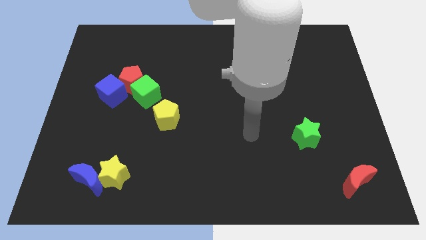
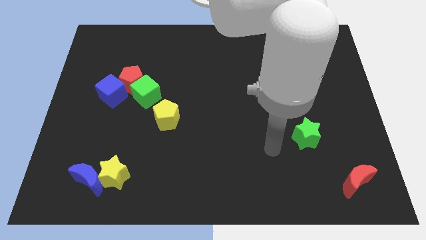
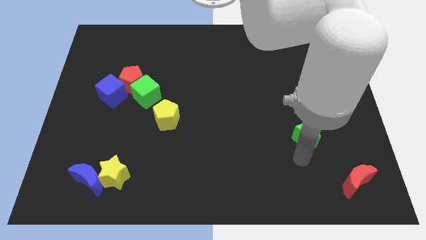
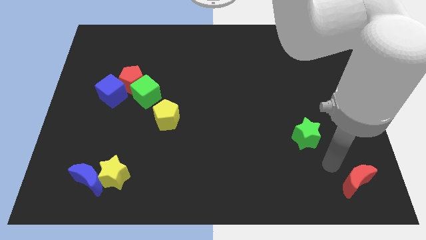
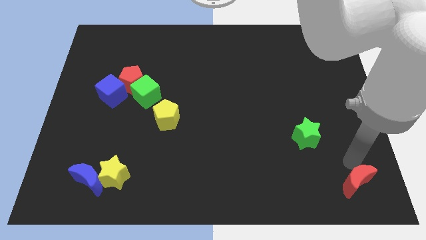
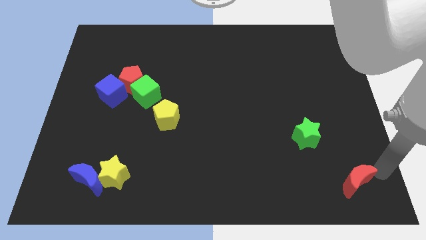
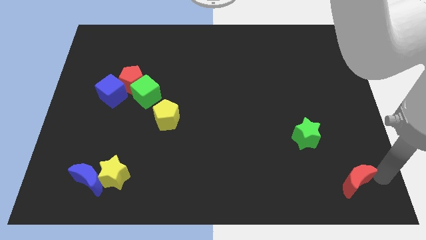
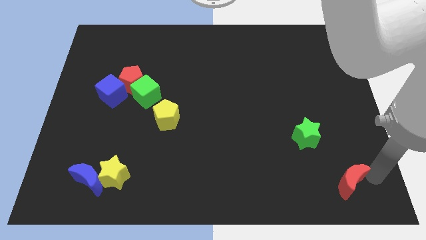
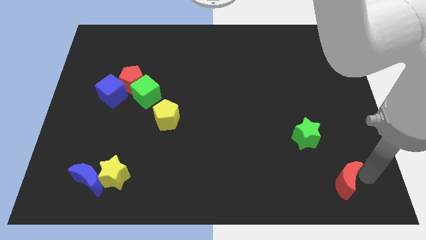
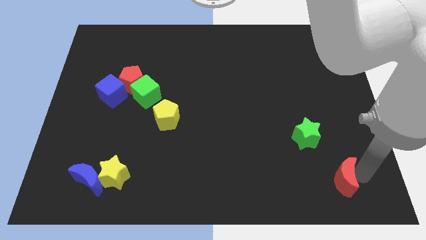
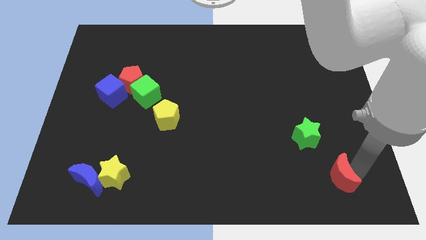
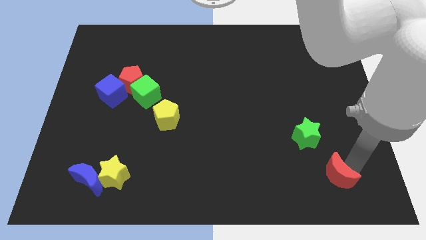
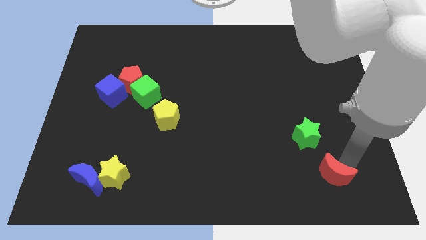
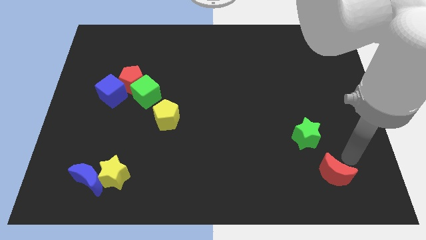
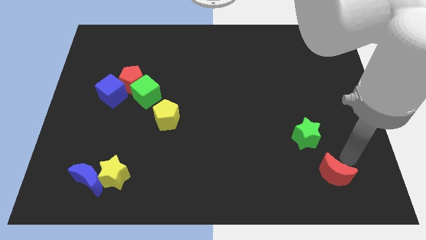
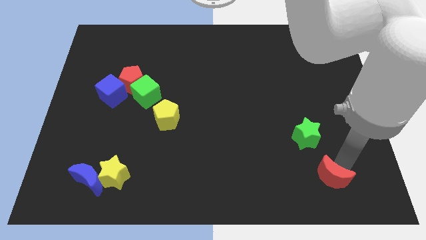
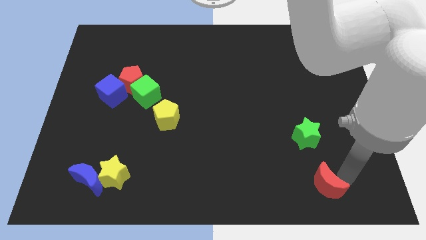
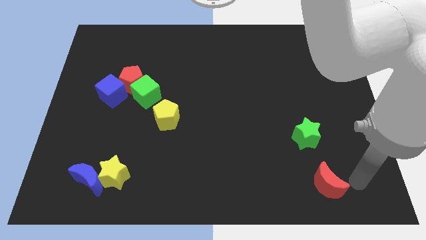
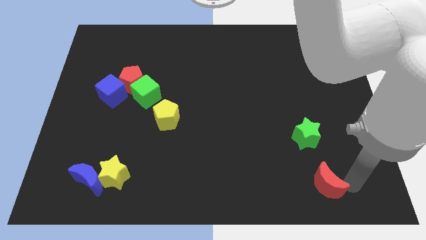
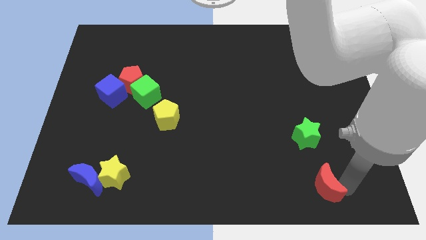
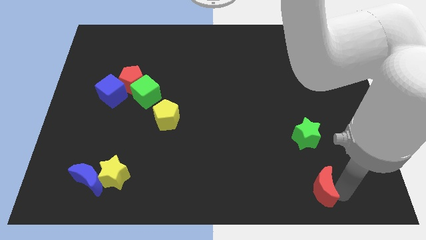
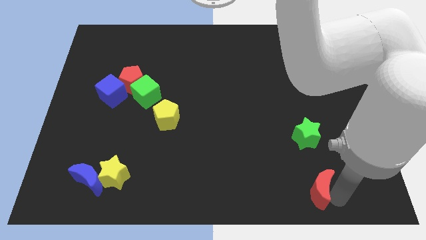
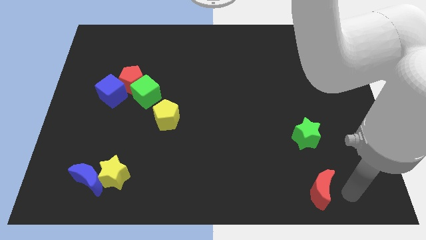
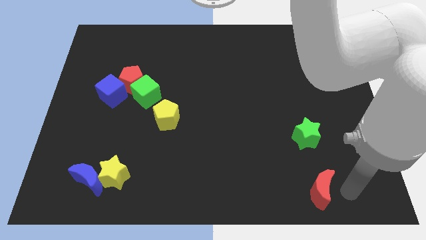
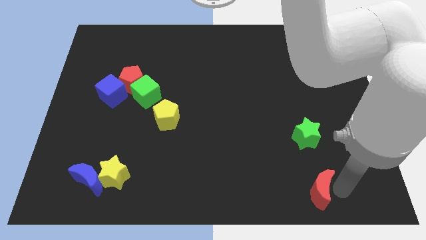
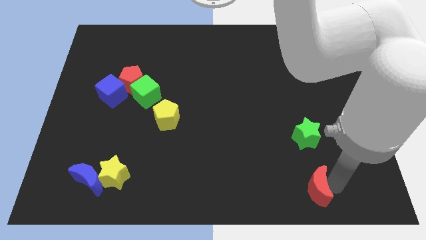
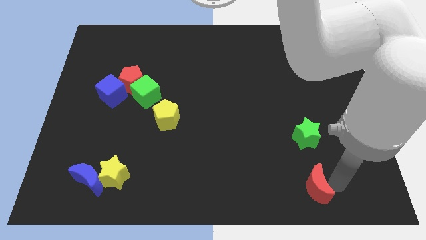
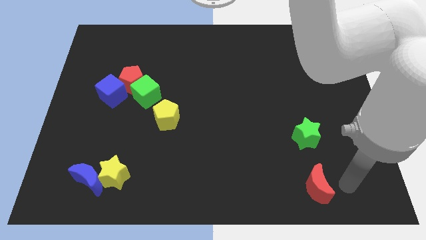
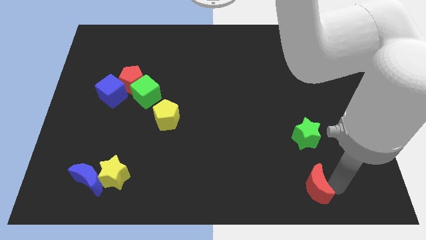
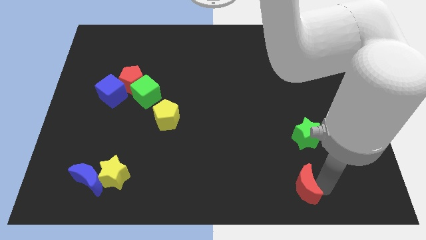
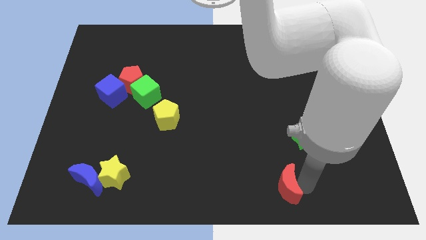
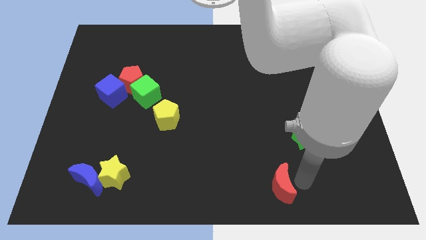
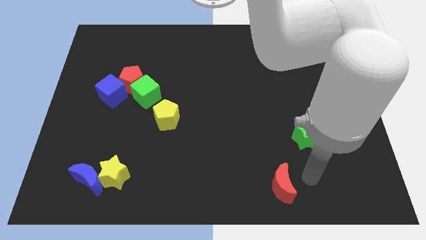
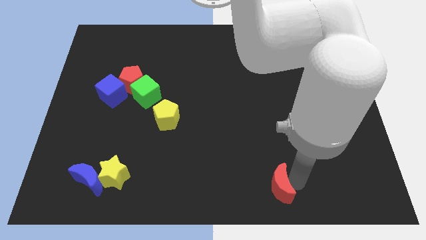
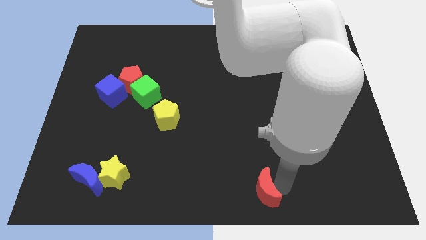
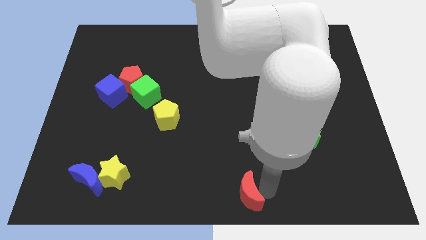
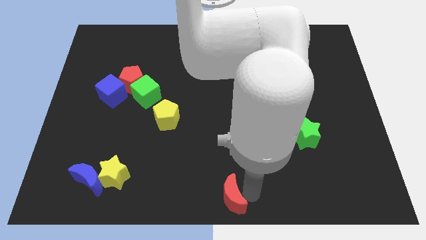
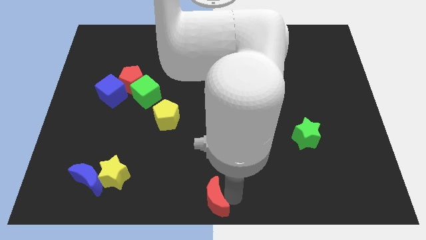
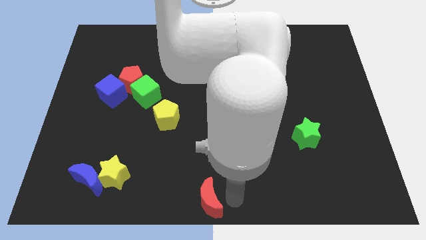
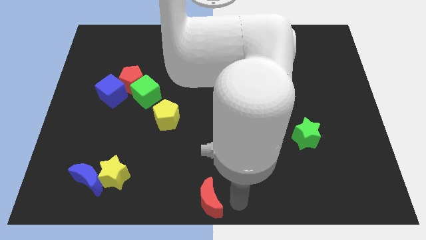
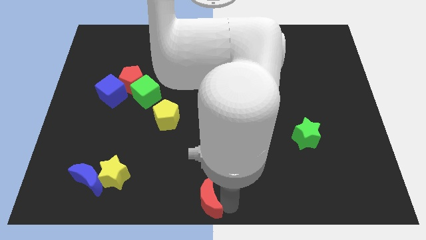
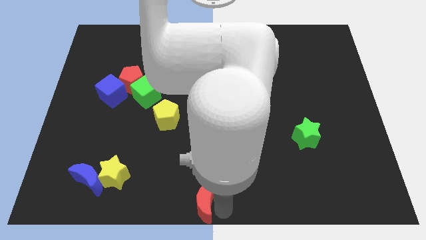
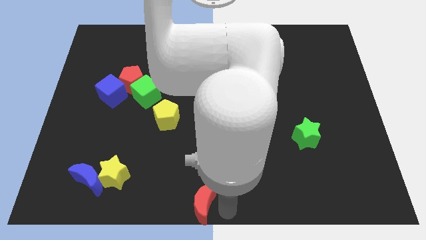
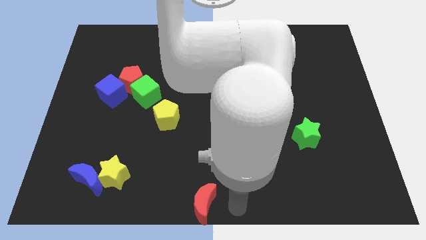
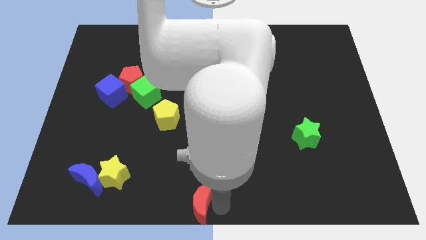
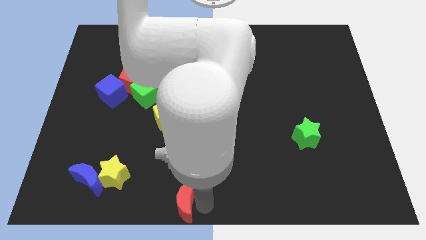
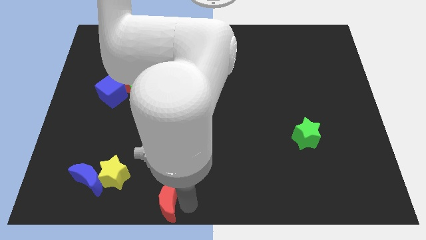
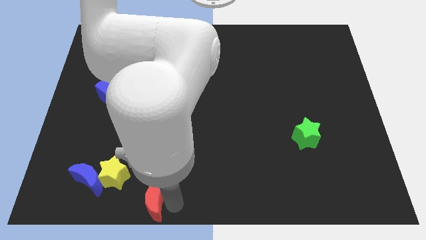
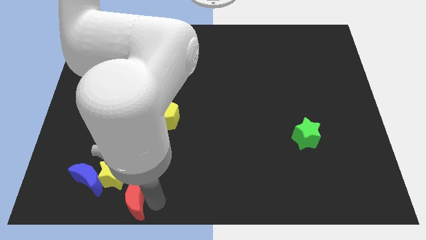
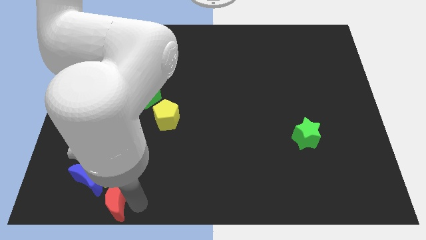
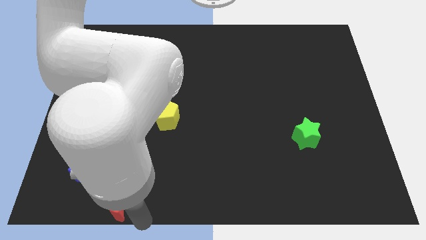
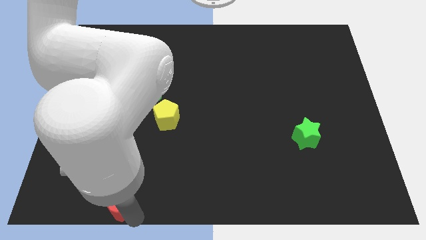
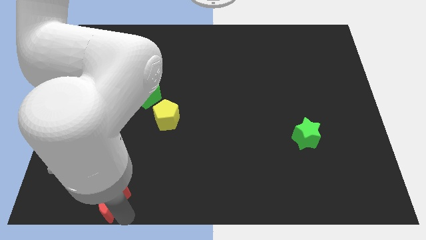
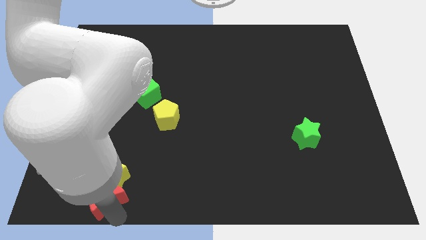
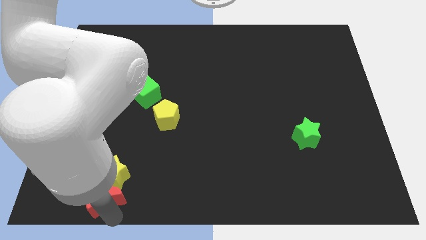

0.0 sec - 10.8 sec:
move the red moon towards the blue moon

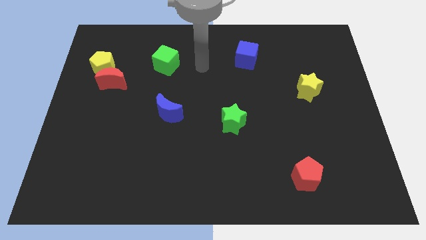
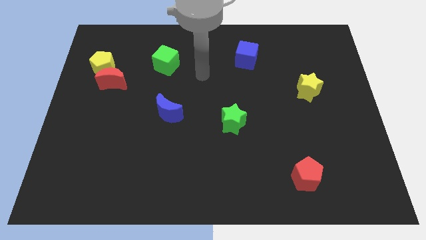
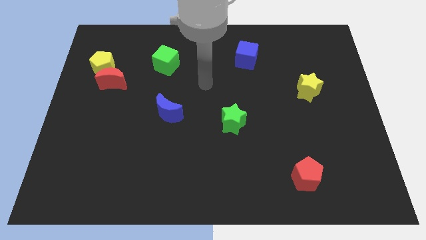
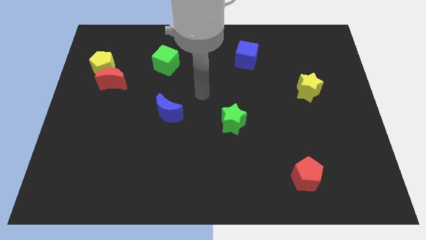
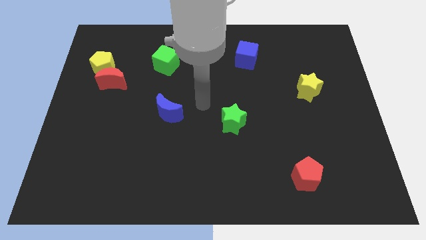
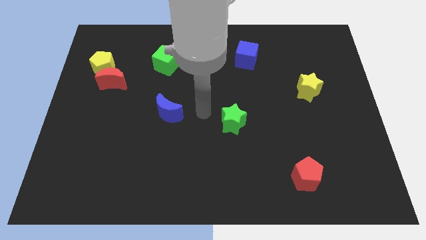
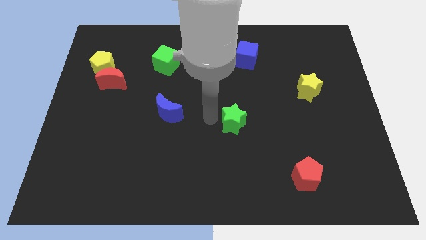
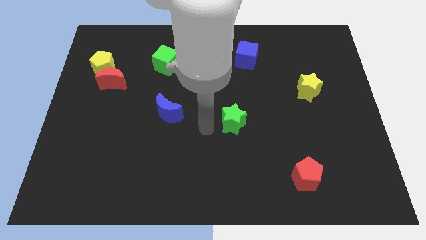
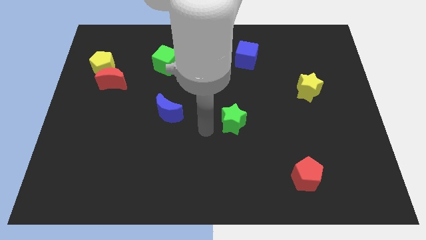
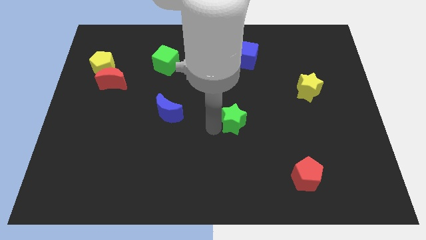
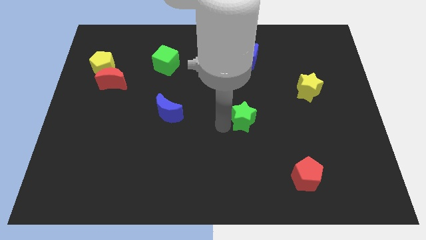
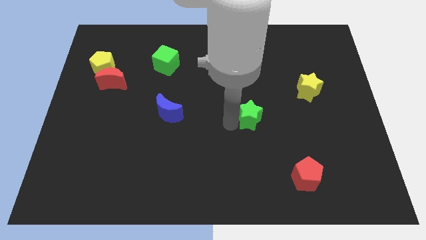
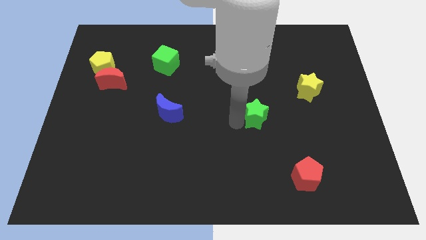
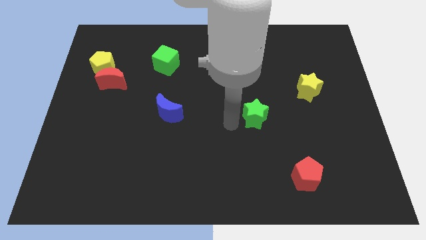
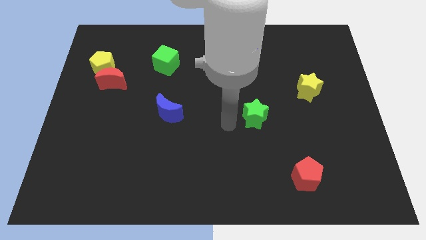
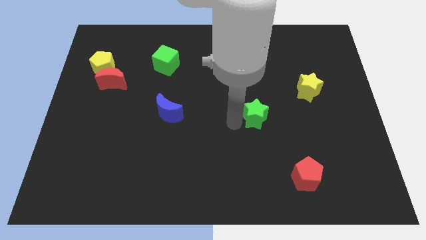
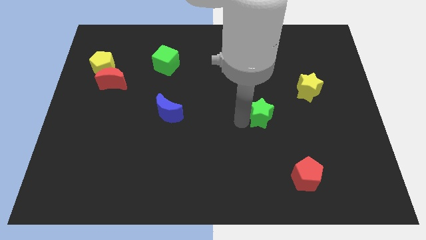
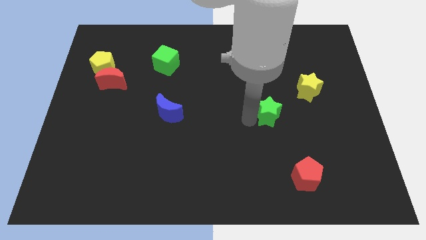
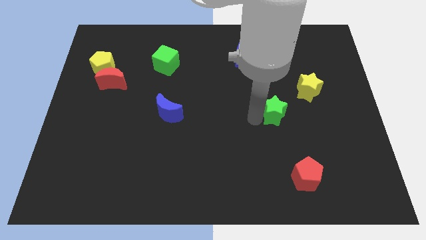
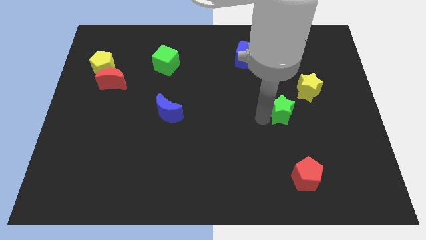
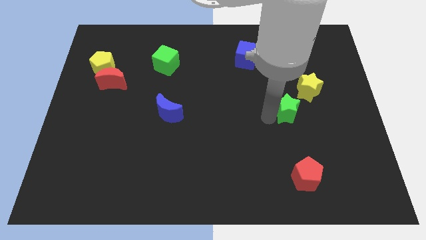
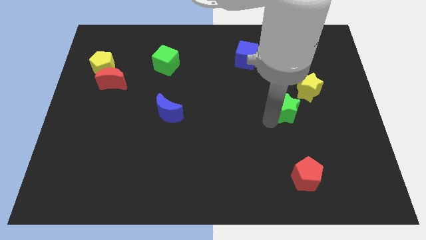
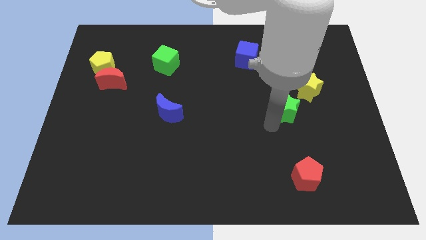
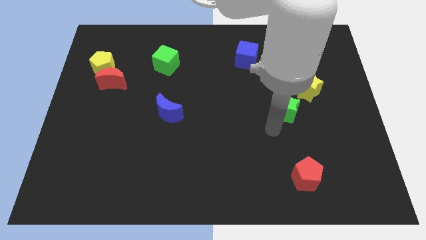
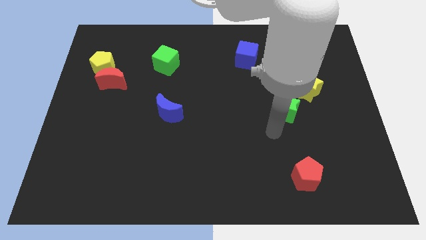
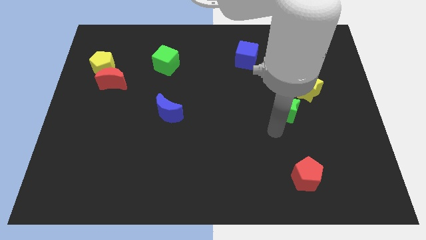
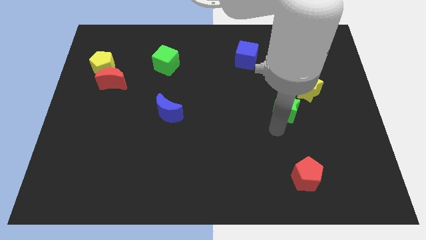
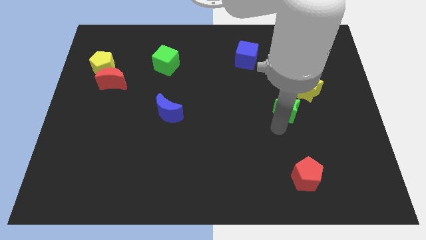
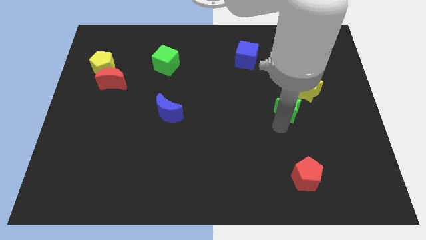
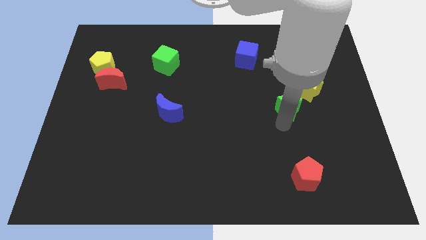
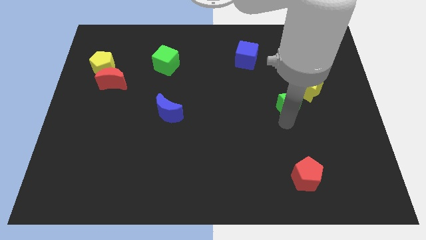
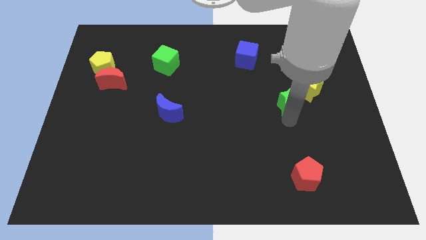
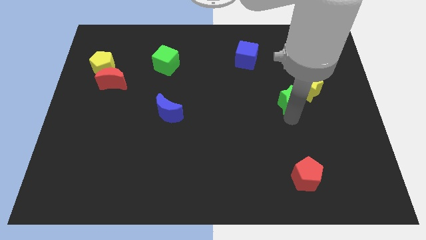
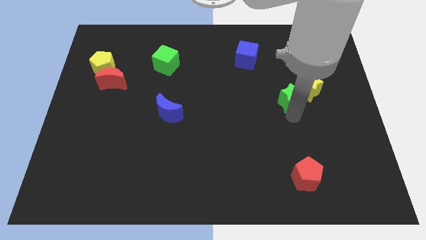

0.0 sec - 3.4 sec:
slide the green star next to the yellow star
